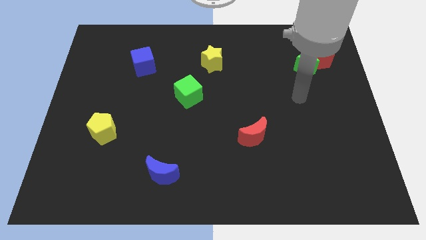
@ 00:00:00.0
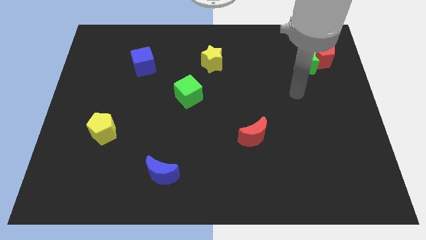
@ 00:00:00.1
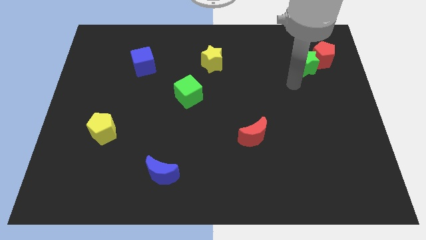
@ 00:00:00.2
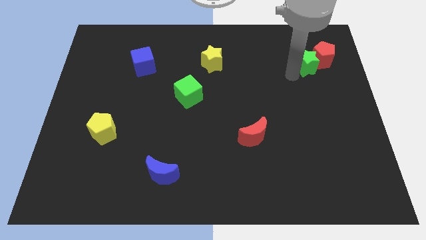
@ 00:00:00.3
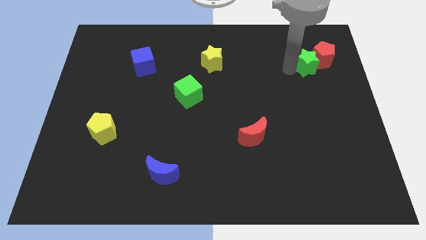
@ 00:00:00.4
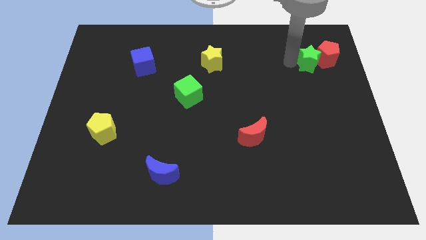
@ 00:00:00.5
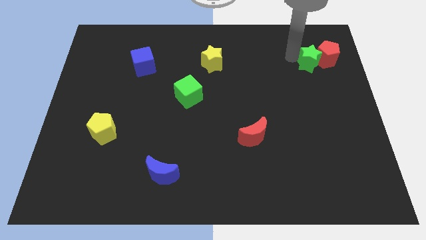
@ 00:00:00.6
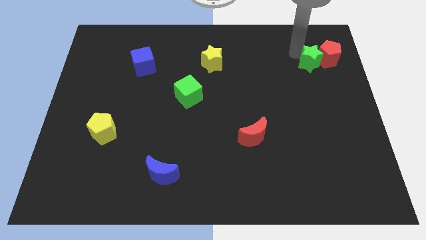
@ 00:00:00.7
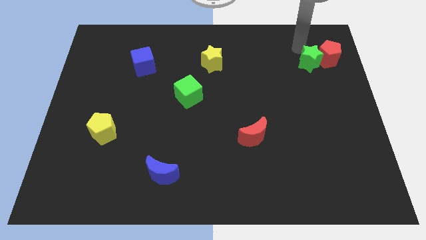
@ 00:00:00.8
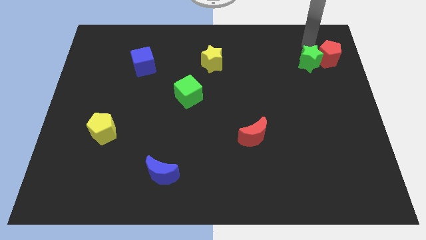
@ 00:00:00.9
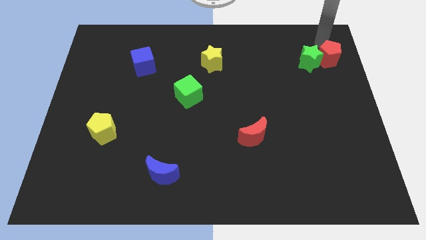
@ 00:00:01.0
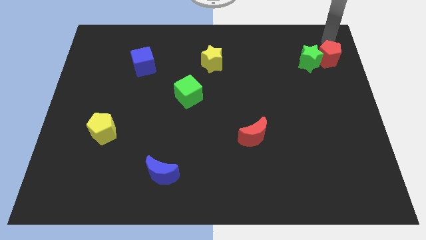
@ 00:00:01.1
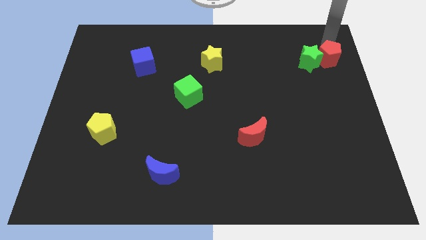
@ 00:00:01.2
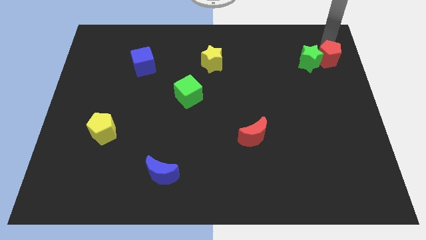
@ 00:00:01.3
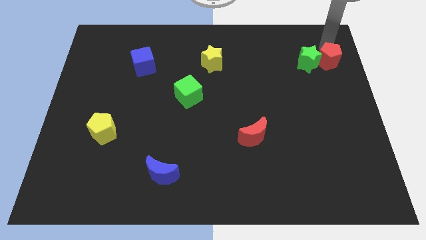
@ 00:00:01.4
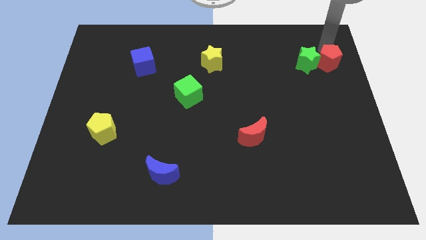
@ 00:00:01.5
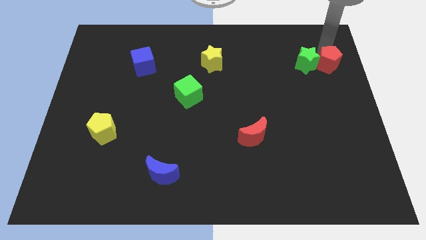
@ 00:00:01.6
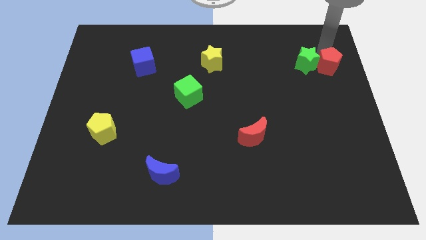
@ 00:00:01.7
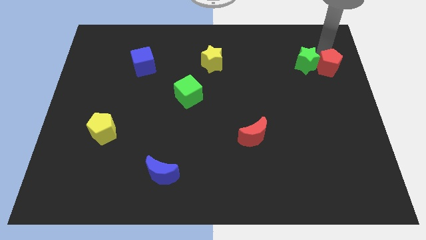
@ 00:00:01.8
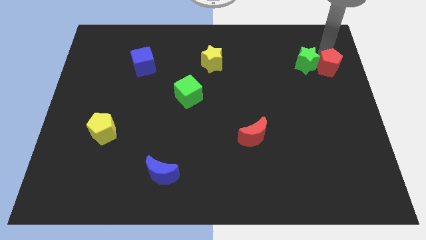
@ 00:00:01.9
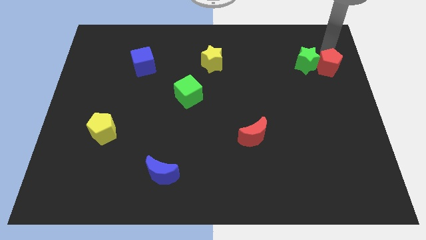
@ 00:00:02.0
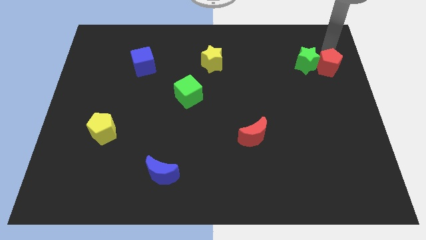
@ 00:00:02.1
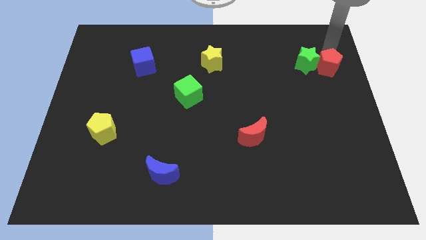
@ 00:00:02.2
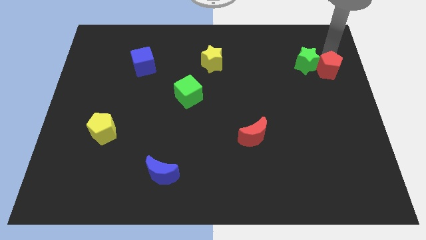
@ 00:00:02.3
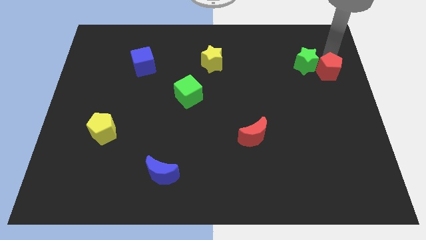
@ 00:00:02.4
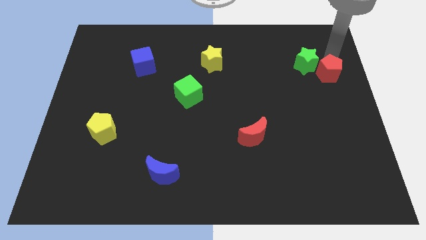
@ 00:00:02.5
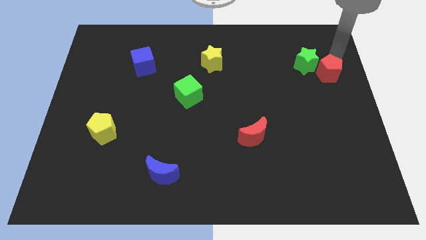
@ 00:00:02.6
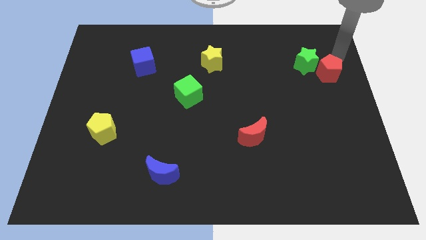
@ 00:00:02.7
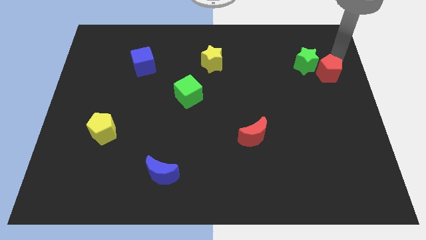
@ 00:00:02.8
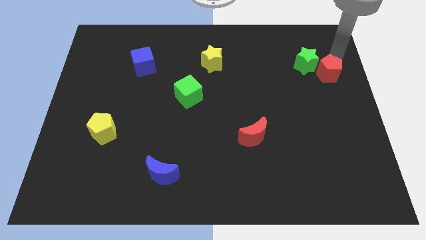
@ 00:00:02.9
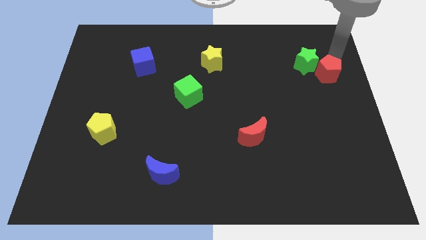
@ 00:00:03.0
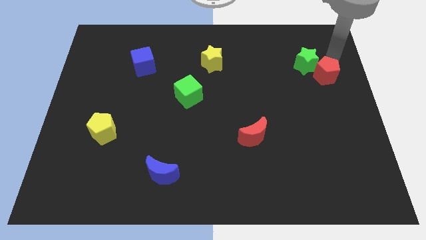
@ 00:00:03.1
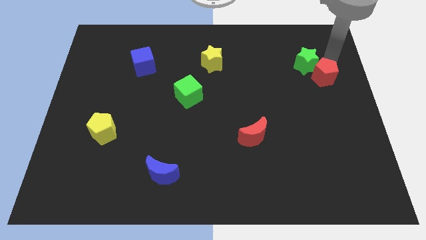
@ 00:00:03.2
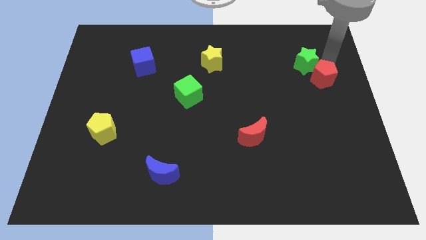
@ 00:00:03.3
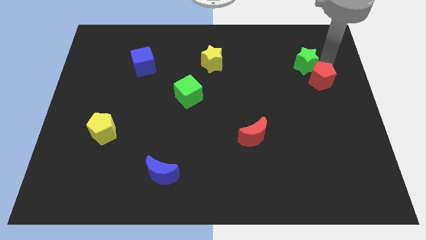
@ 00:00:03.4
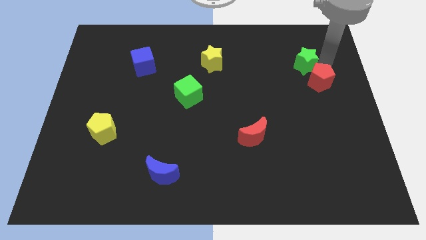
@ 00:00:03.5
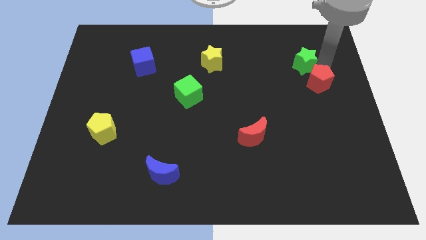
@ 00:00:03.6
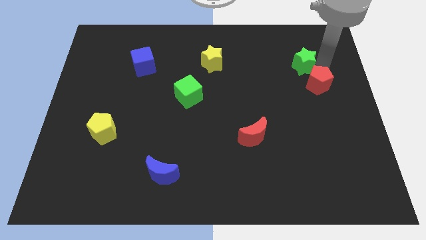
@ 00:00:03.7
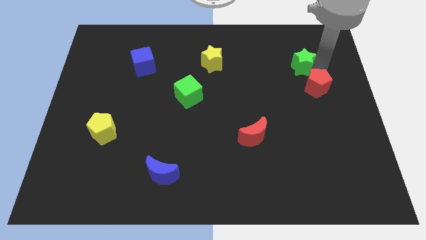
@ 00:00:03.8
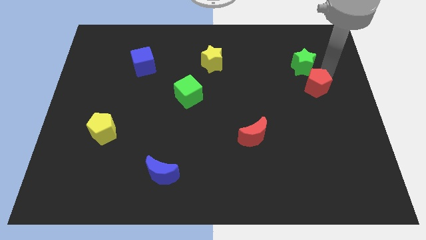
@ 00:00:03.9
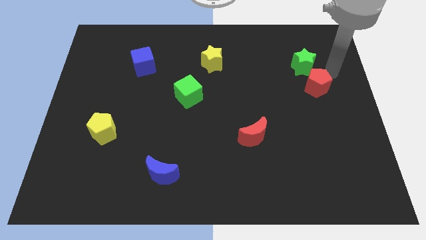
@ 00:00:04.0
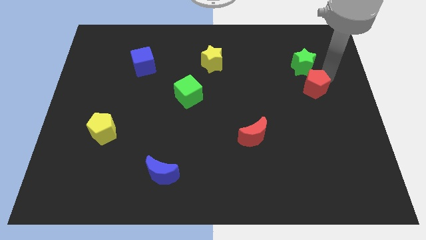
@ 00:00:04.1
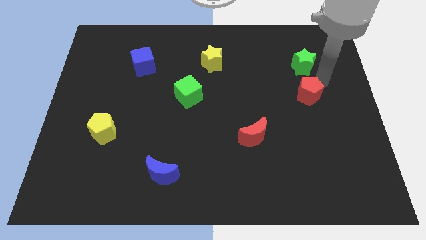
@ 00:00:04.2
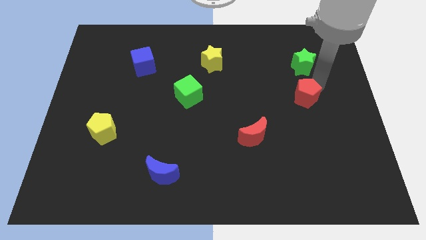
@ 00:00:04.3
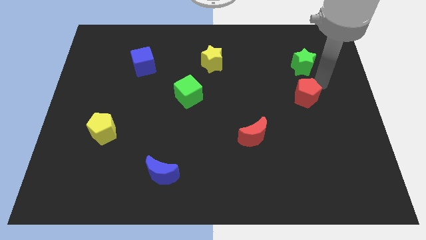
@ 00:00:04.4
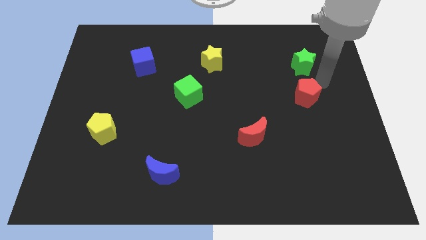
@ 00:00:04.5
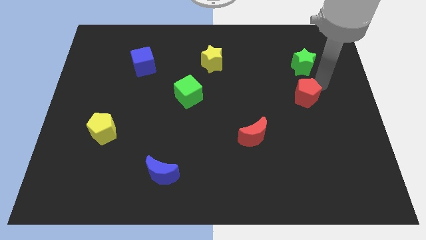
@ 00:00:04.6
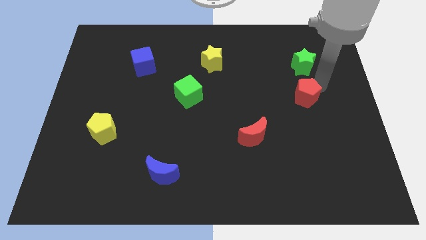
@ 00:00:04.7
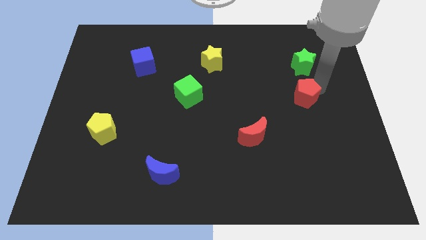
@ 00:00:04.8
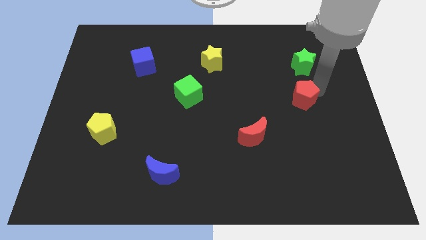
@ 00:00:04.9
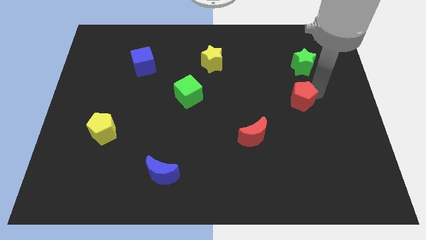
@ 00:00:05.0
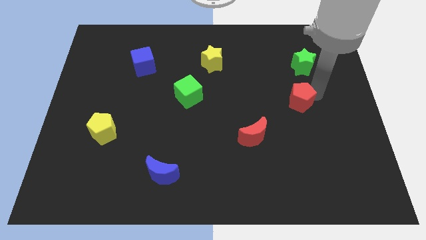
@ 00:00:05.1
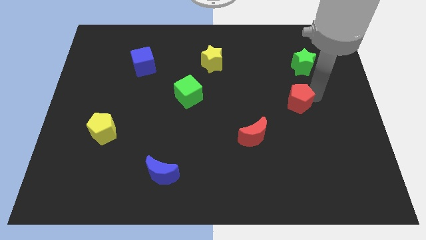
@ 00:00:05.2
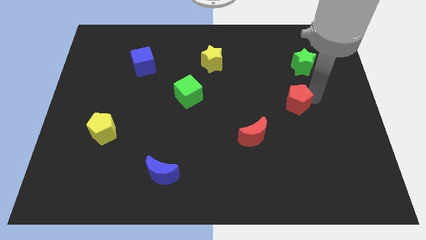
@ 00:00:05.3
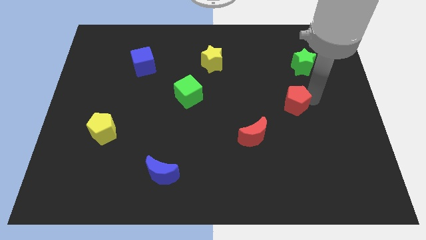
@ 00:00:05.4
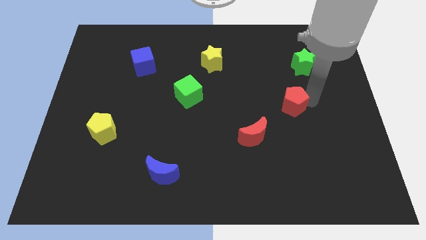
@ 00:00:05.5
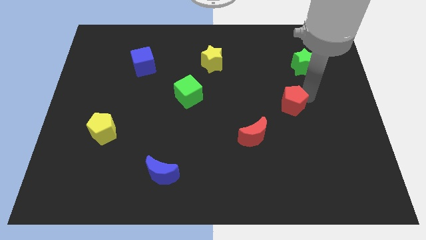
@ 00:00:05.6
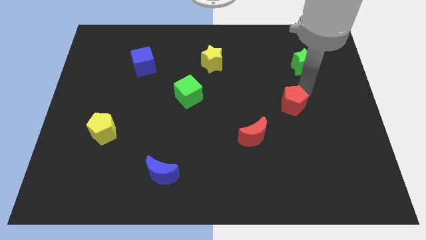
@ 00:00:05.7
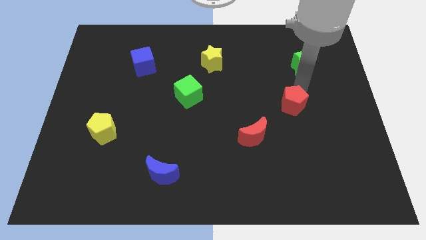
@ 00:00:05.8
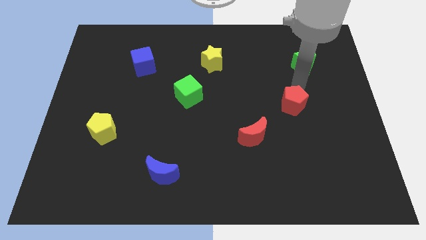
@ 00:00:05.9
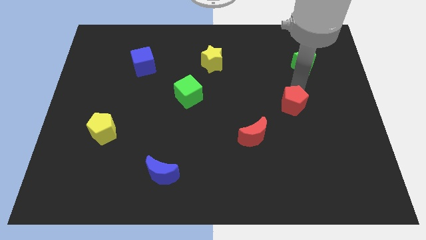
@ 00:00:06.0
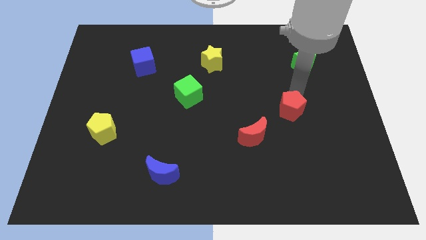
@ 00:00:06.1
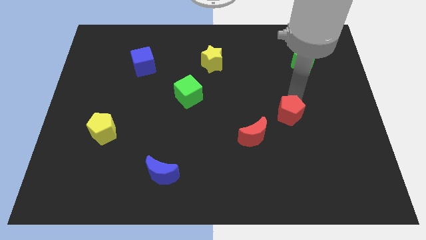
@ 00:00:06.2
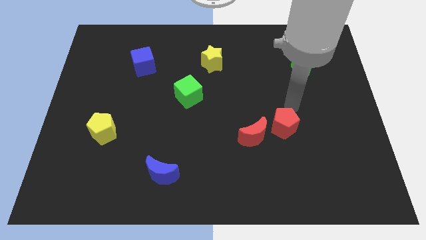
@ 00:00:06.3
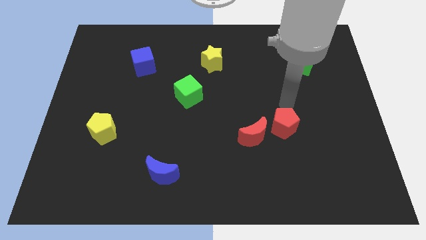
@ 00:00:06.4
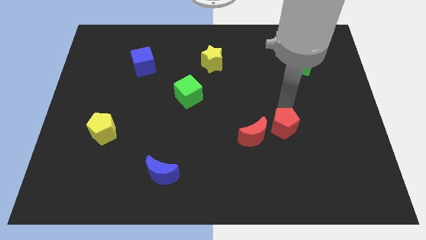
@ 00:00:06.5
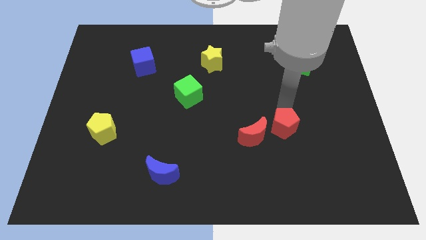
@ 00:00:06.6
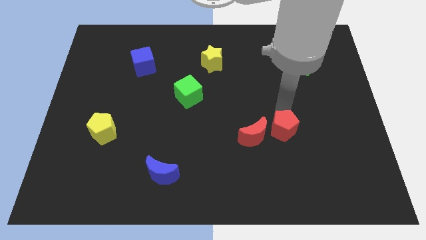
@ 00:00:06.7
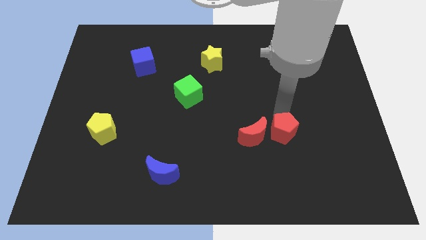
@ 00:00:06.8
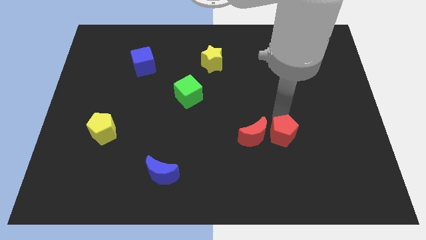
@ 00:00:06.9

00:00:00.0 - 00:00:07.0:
put the red pentagon diagonally down and to the right of the red moon
